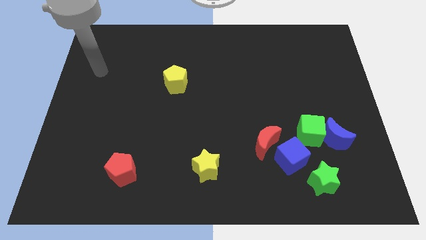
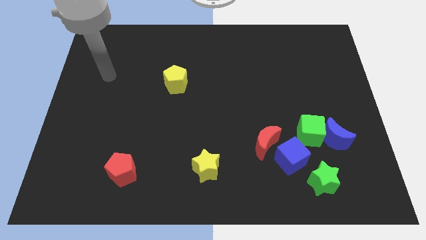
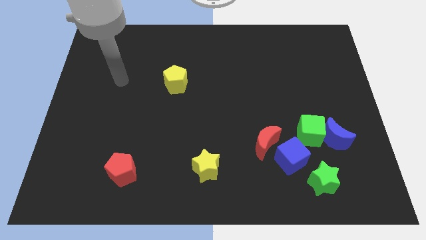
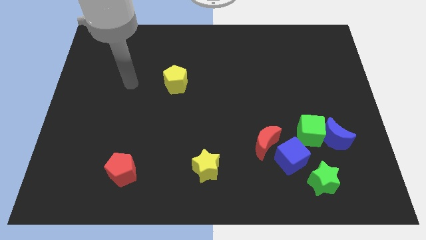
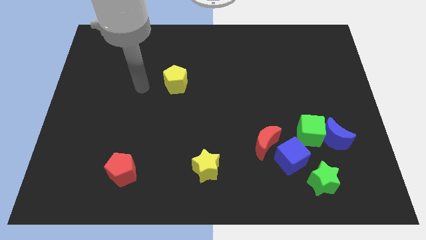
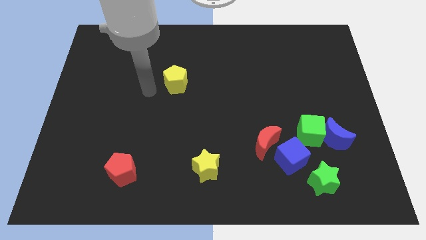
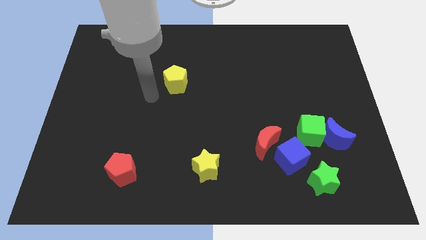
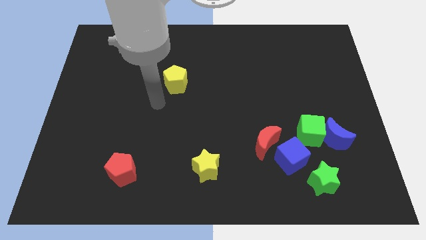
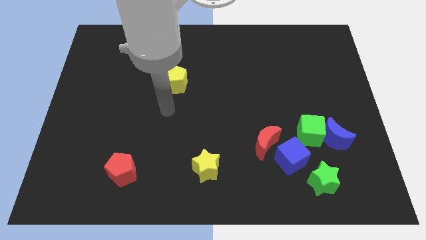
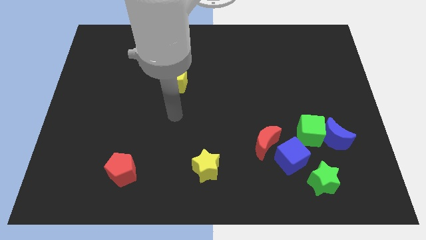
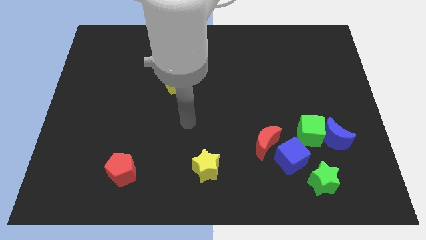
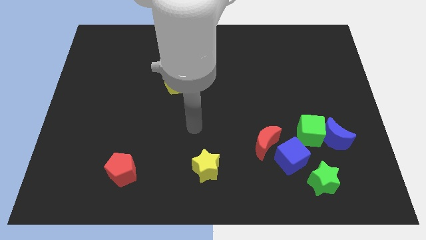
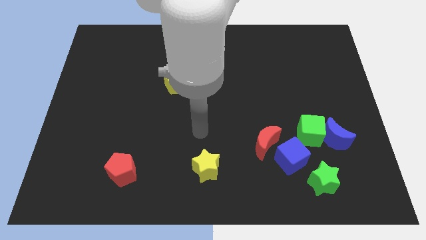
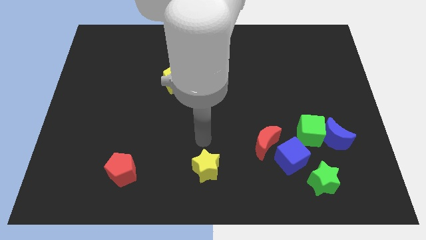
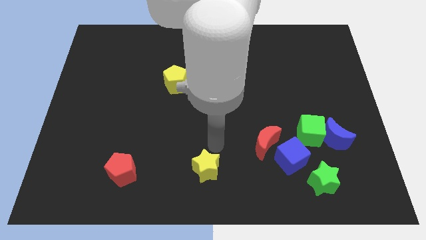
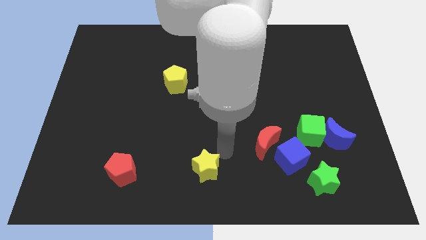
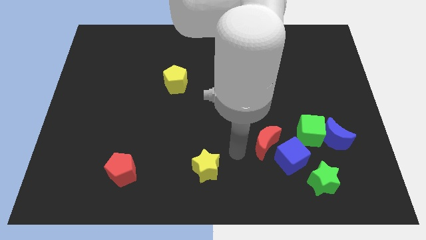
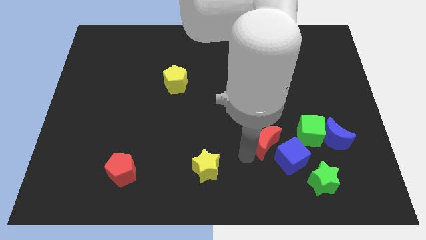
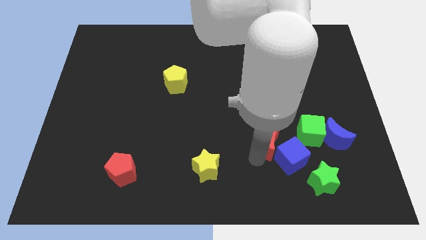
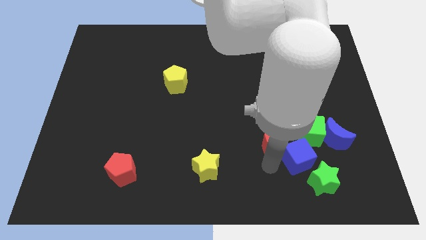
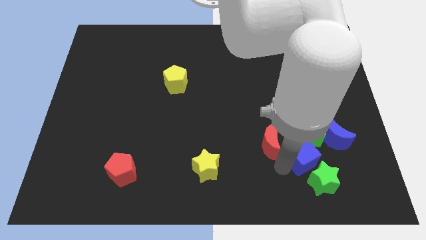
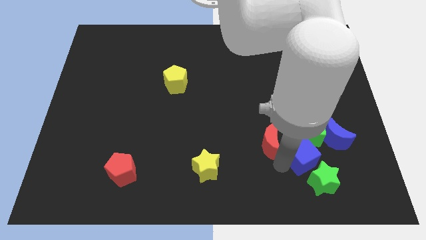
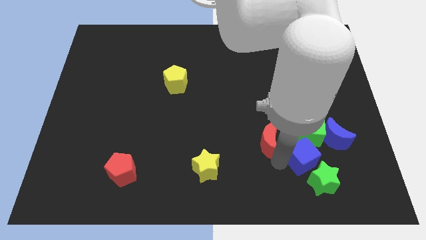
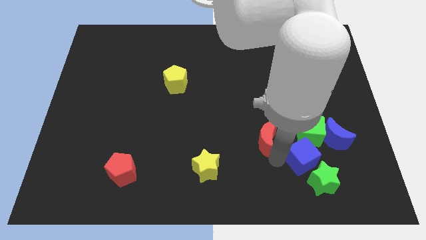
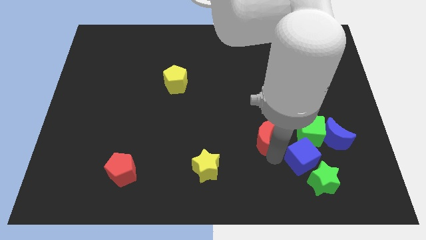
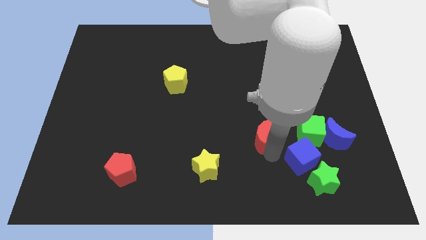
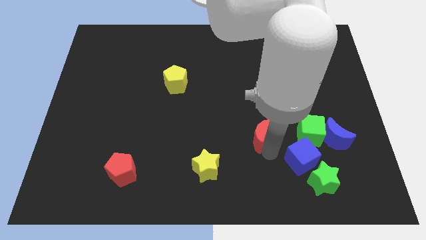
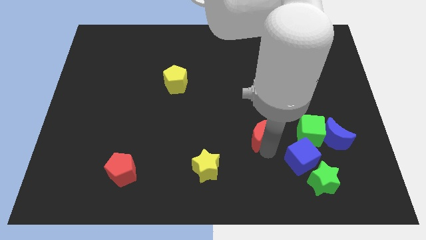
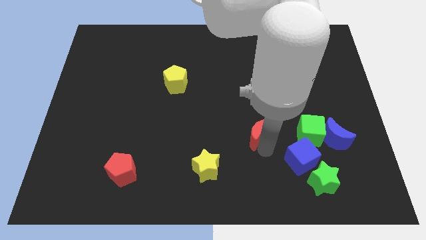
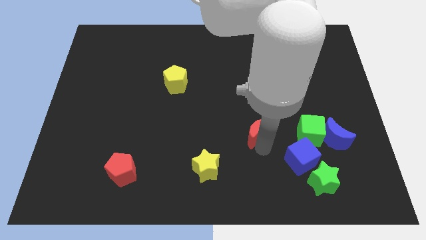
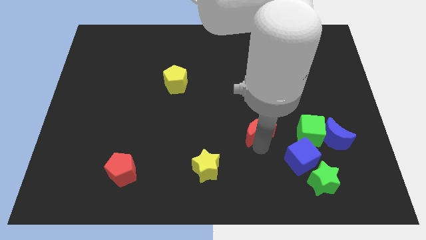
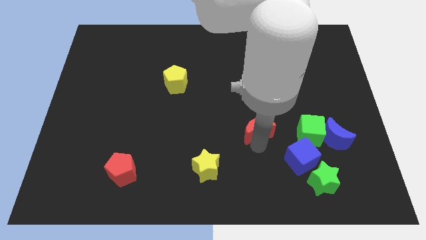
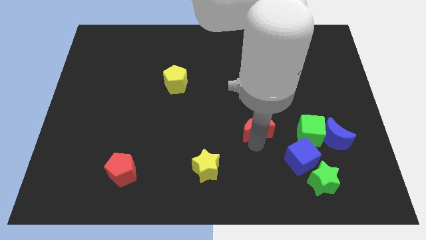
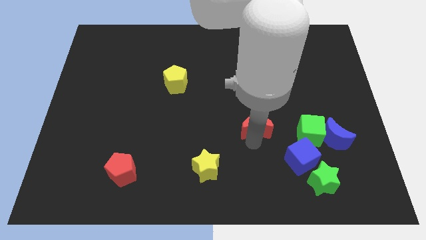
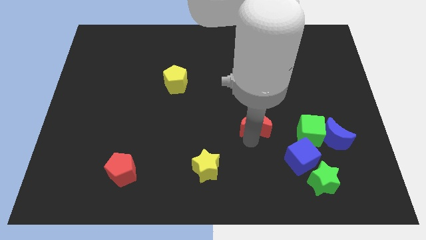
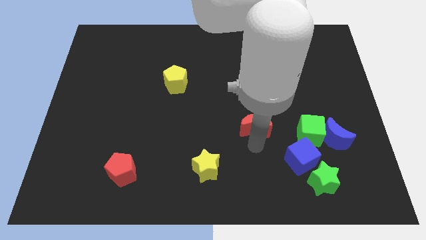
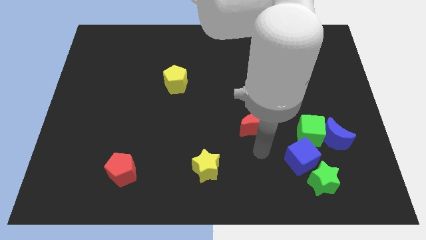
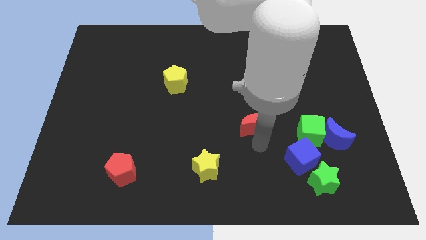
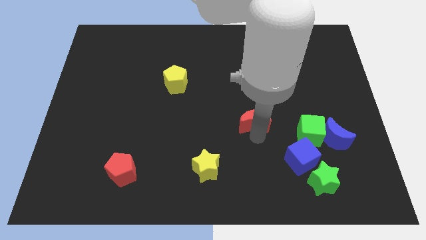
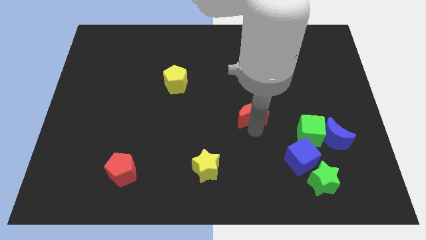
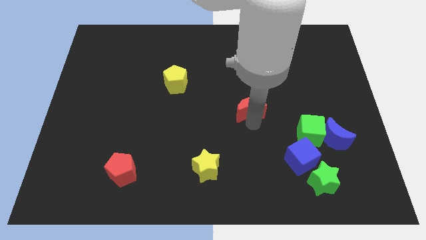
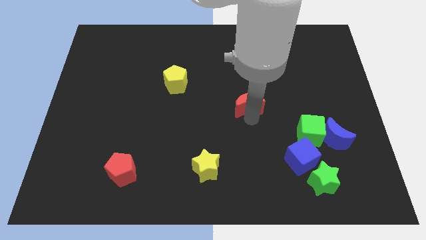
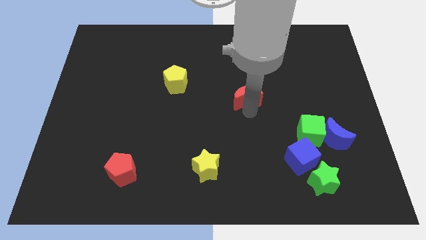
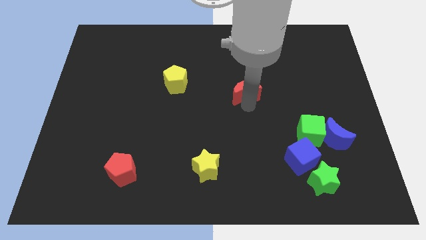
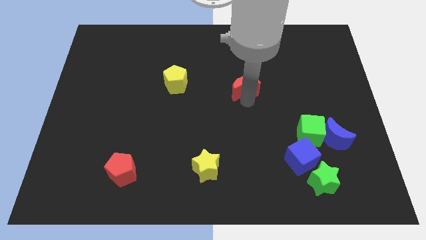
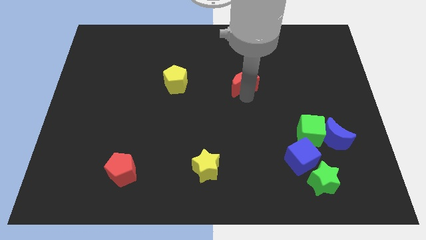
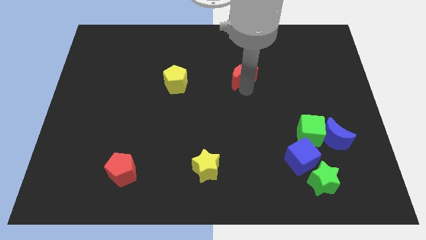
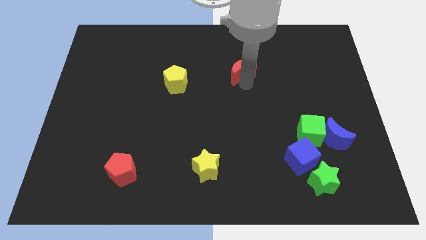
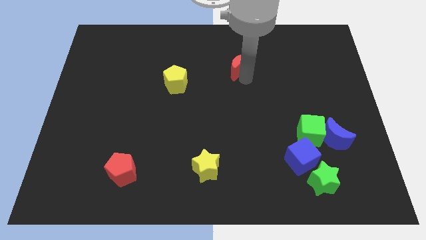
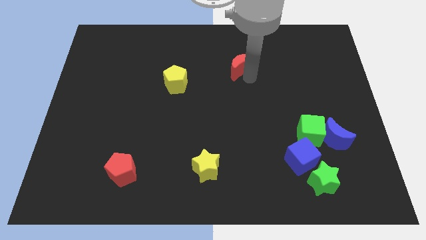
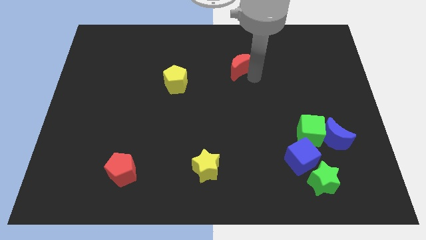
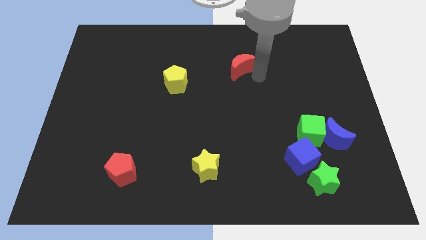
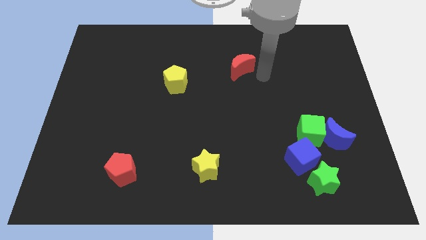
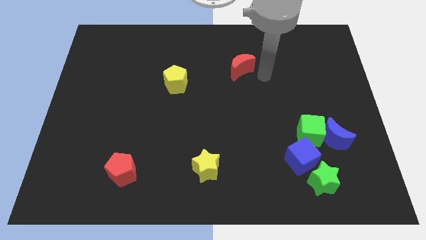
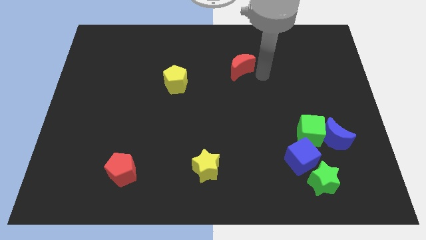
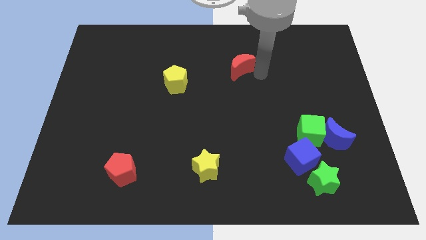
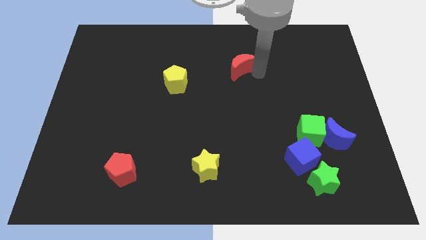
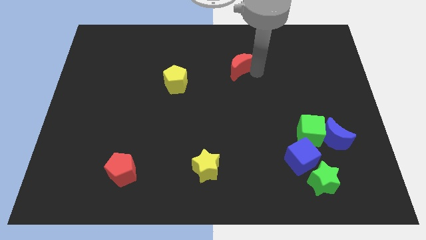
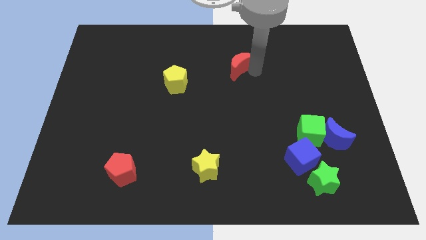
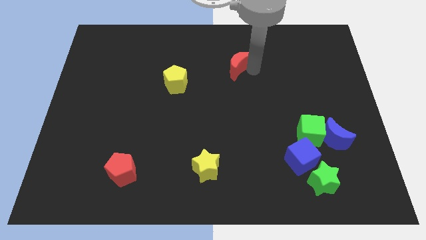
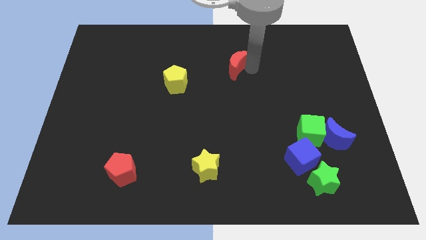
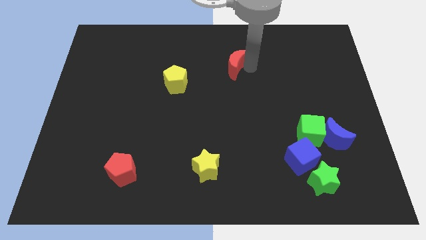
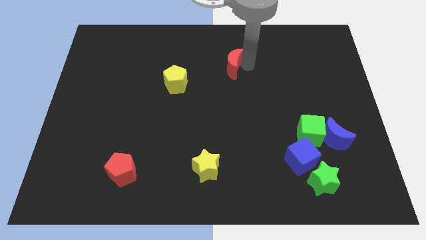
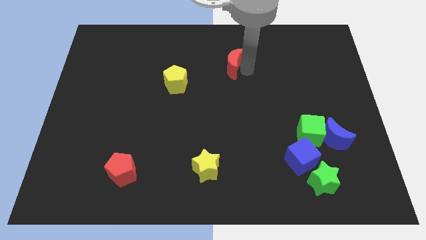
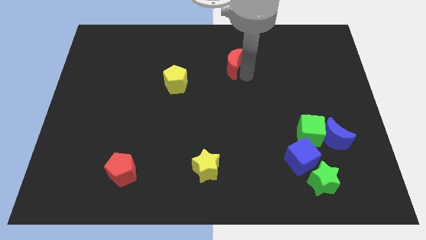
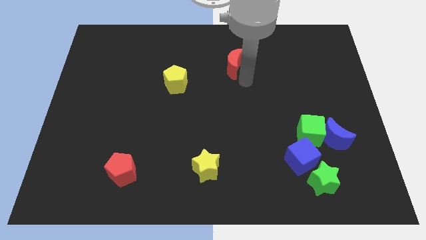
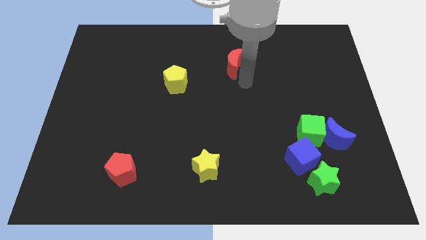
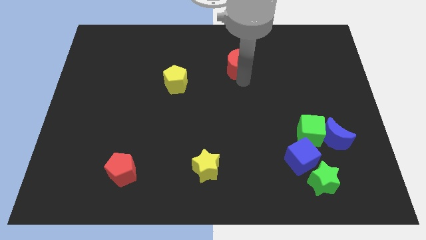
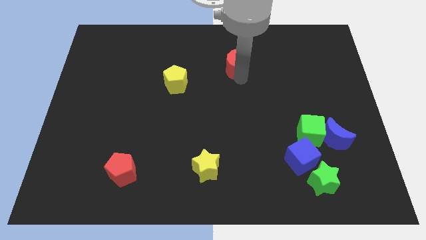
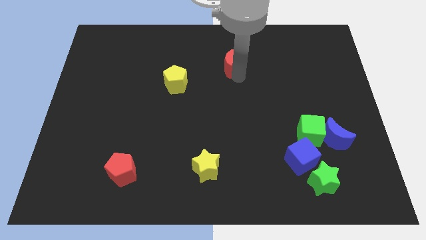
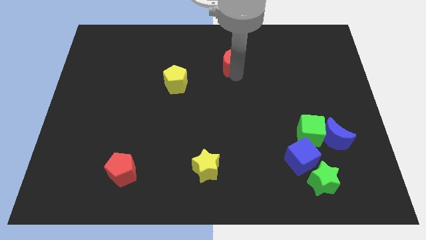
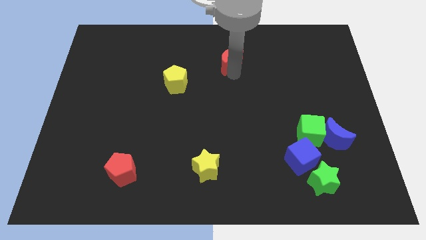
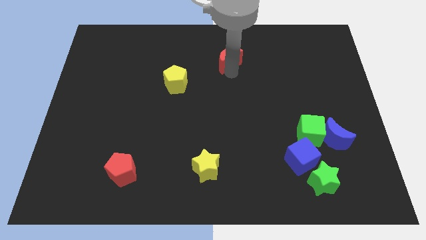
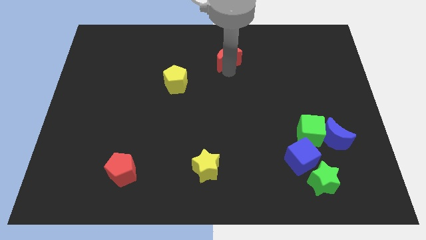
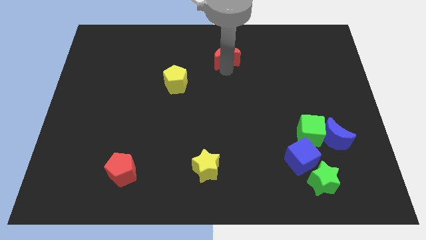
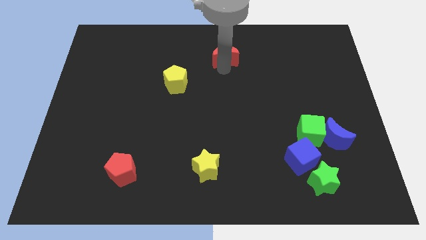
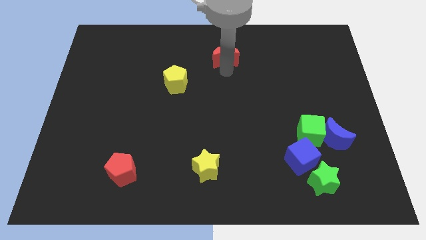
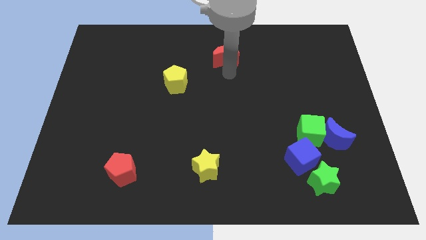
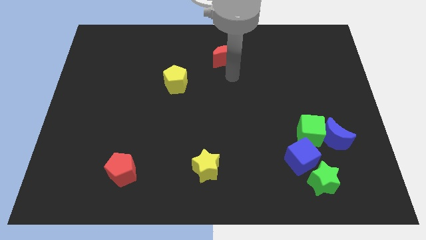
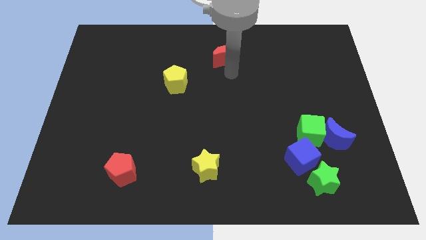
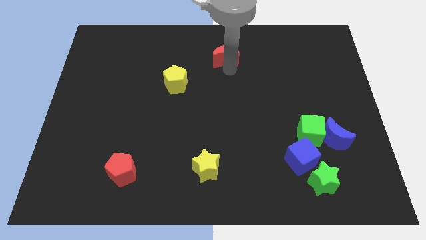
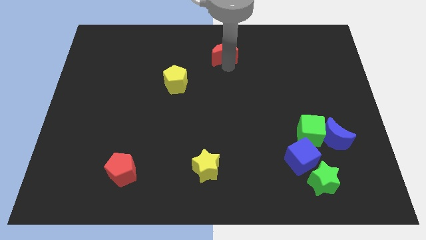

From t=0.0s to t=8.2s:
put the red moon to the top side
